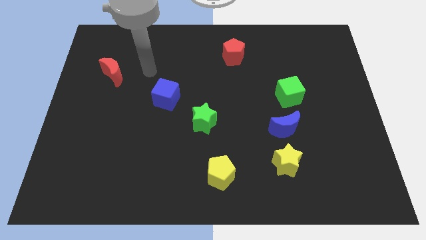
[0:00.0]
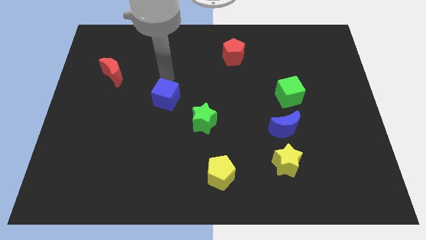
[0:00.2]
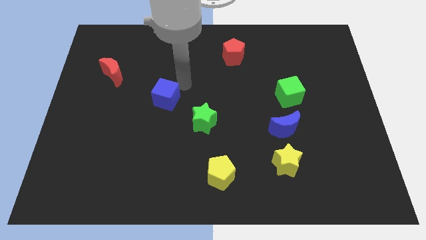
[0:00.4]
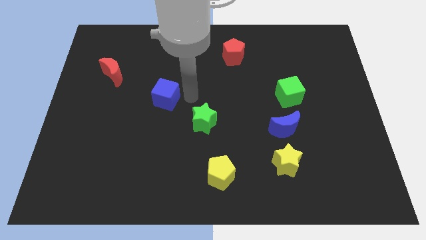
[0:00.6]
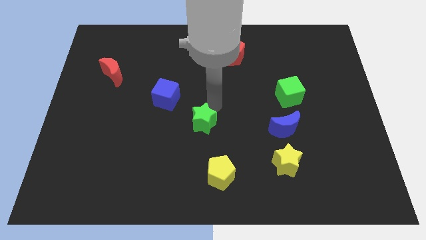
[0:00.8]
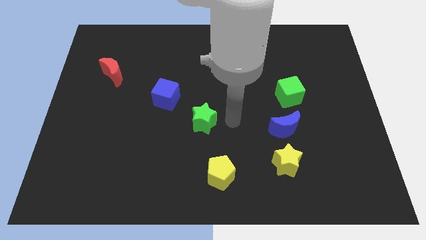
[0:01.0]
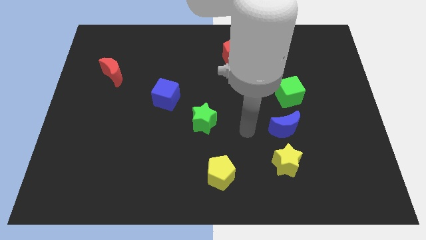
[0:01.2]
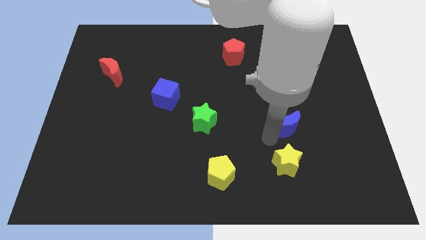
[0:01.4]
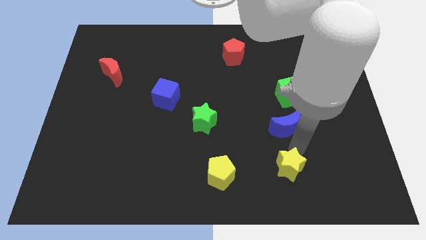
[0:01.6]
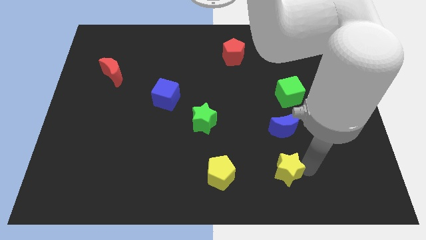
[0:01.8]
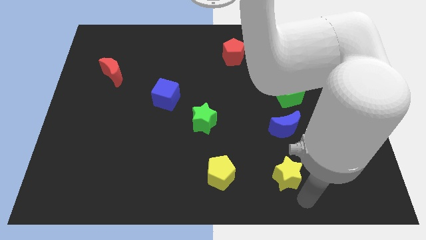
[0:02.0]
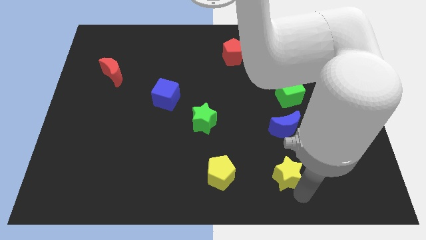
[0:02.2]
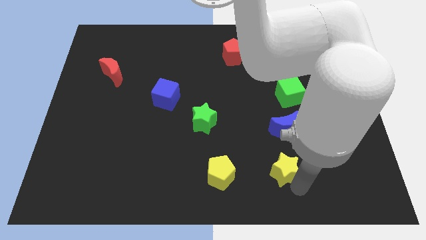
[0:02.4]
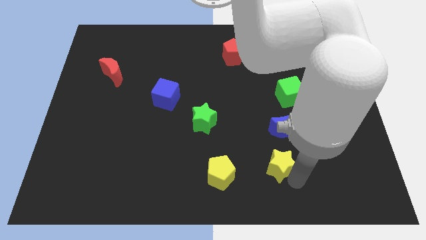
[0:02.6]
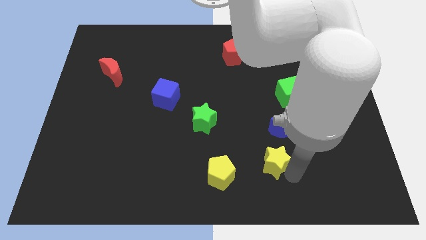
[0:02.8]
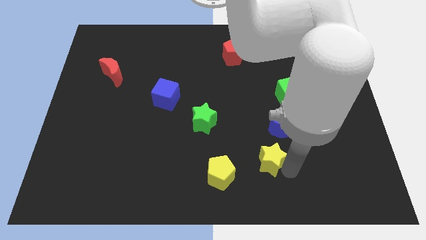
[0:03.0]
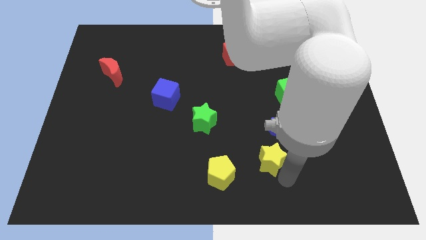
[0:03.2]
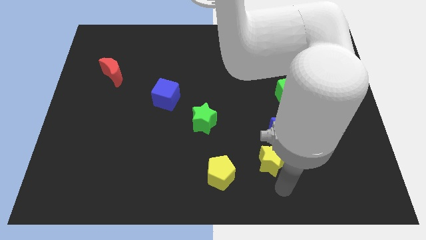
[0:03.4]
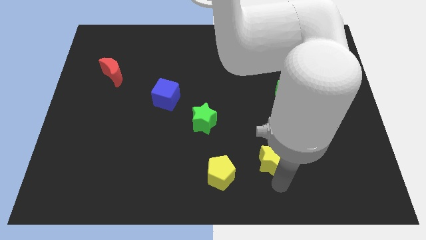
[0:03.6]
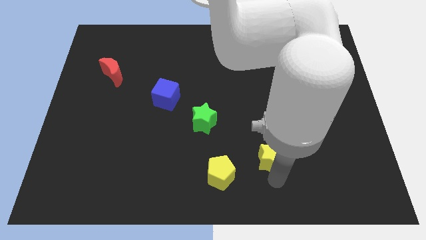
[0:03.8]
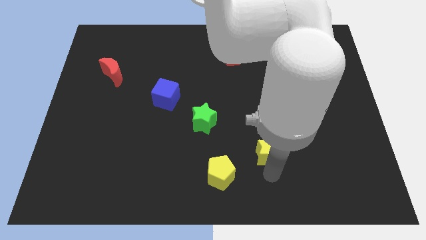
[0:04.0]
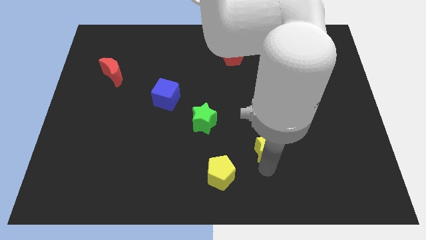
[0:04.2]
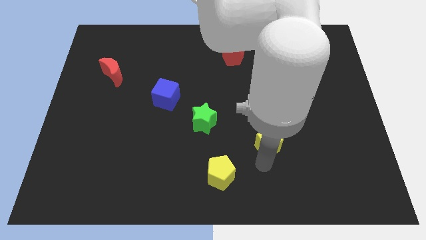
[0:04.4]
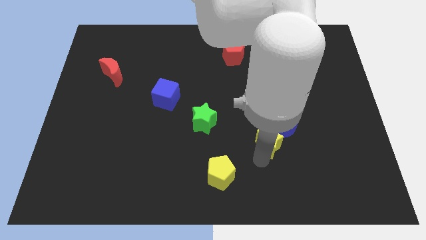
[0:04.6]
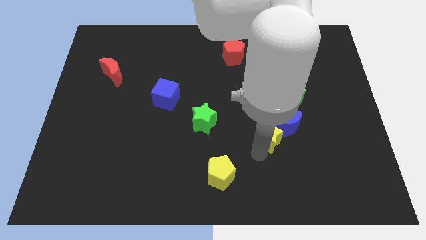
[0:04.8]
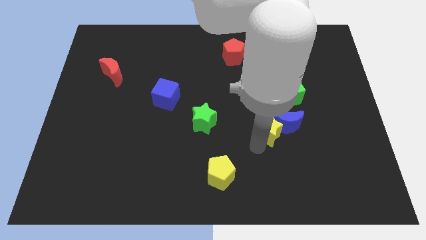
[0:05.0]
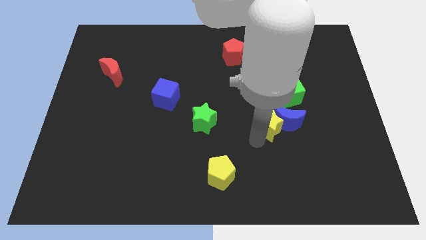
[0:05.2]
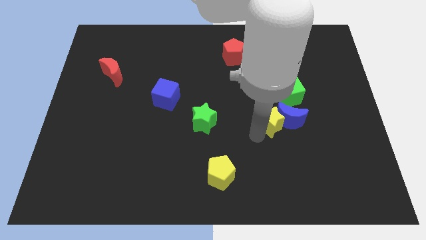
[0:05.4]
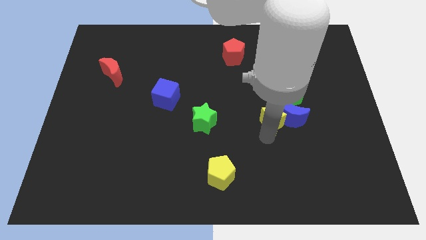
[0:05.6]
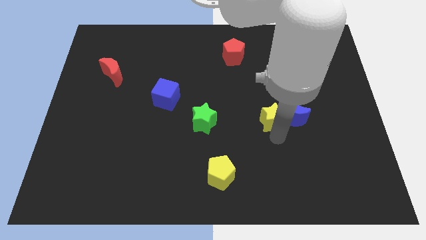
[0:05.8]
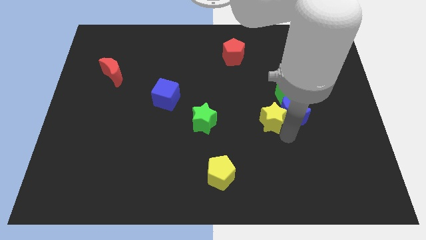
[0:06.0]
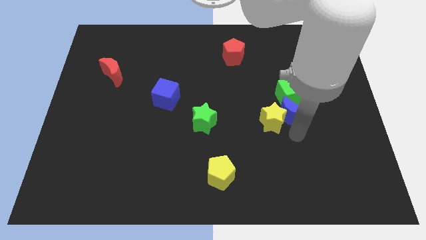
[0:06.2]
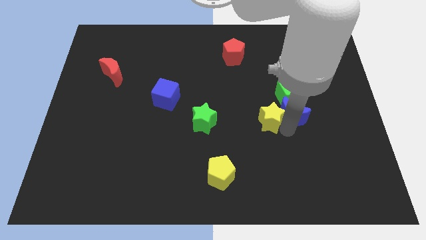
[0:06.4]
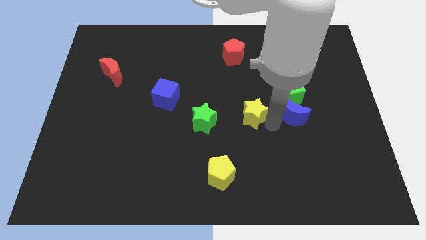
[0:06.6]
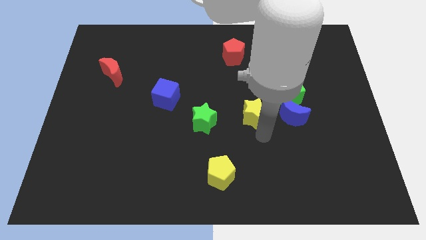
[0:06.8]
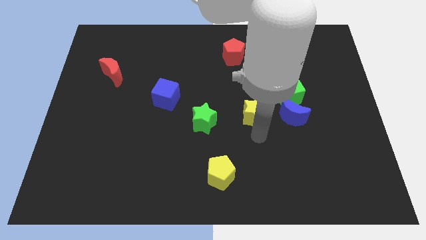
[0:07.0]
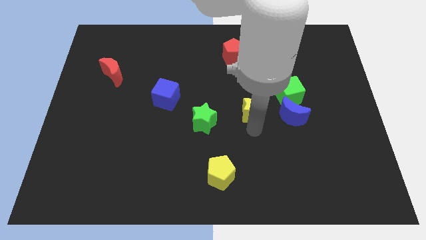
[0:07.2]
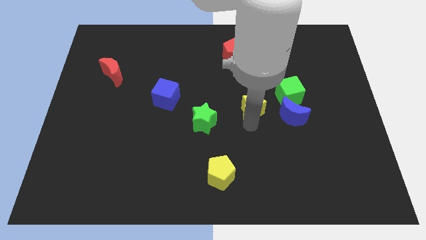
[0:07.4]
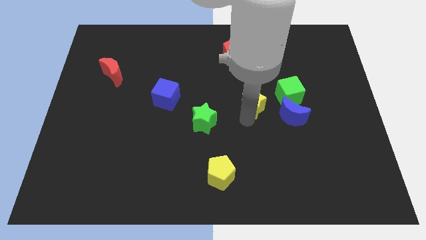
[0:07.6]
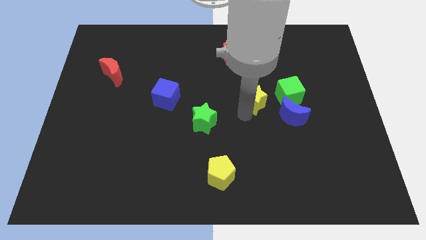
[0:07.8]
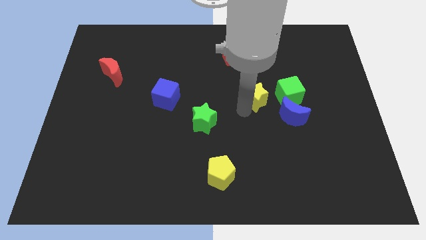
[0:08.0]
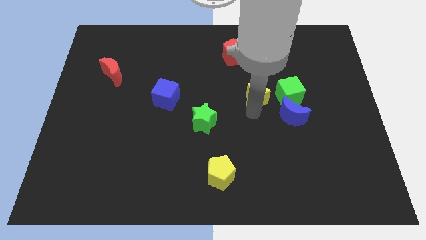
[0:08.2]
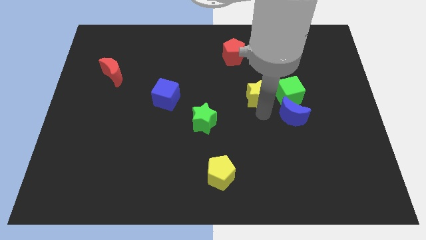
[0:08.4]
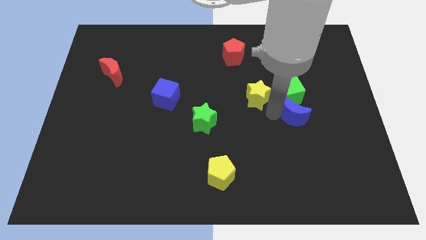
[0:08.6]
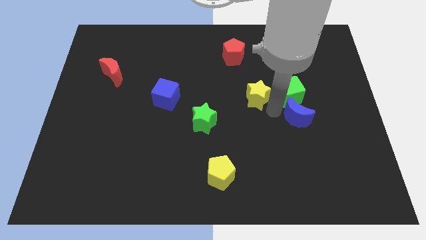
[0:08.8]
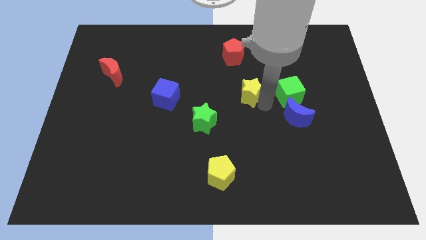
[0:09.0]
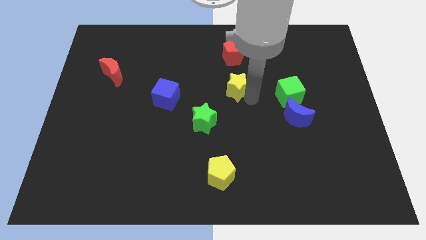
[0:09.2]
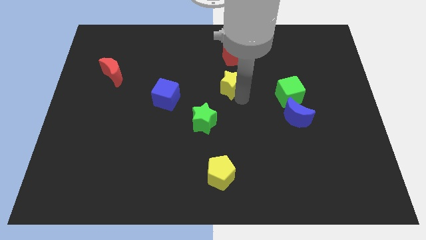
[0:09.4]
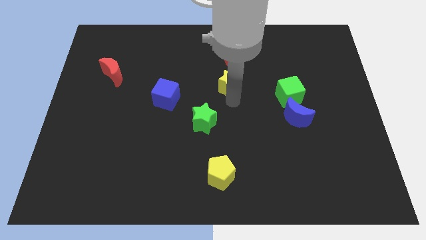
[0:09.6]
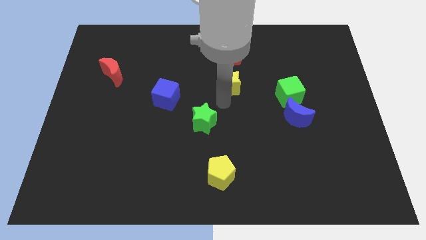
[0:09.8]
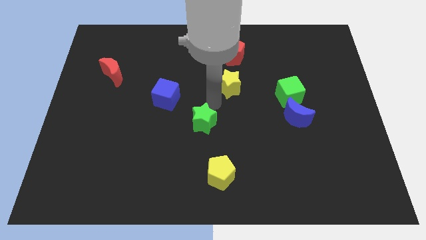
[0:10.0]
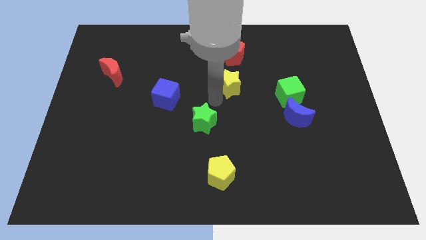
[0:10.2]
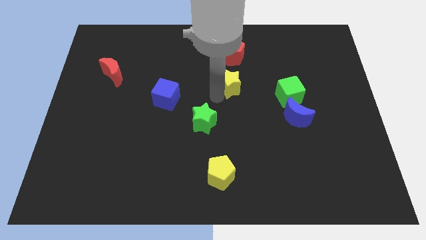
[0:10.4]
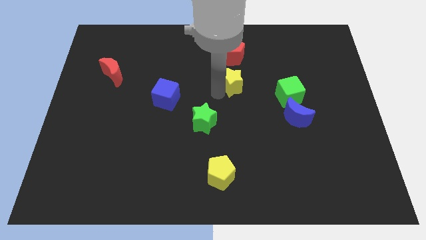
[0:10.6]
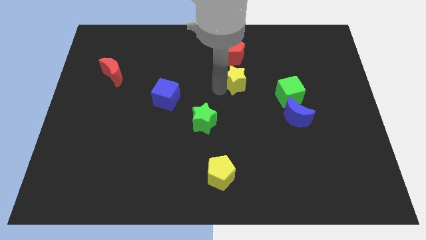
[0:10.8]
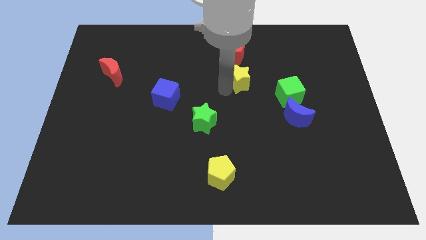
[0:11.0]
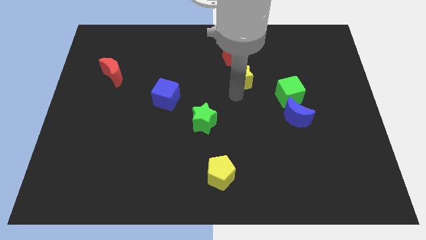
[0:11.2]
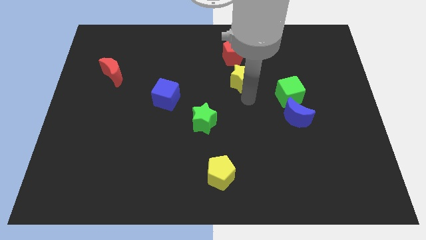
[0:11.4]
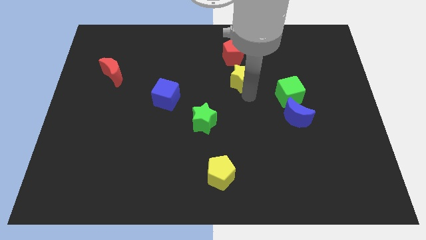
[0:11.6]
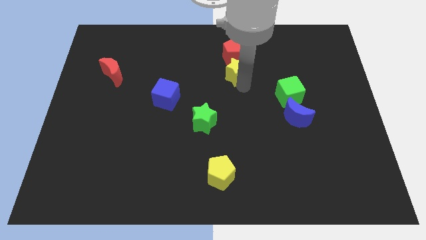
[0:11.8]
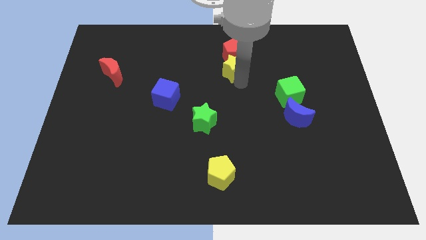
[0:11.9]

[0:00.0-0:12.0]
slide the yellow star close to the red pentagon

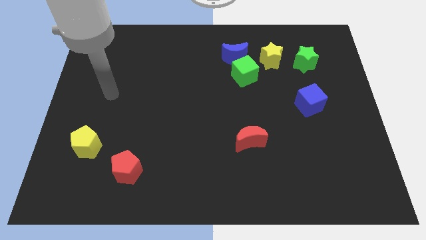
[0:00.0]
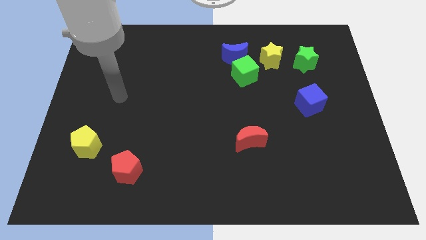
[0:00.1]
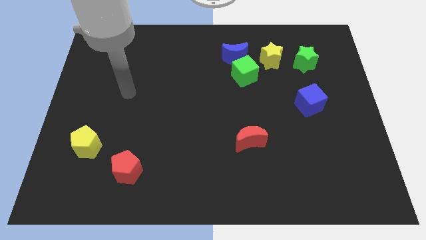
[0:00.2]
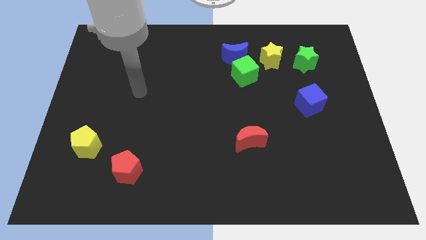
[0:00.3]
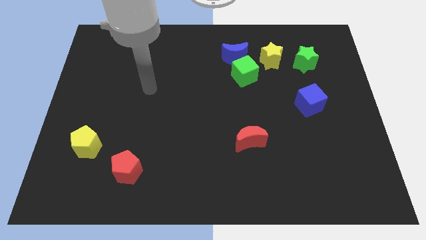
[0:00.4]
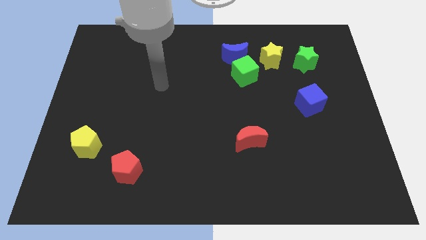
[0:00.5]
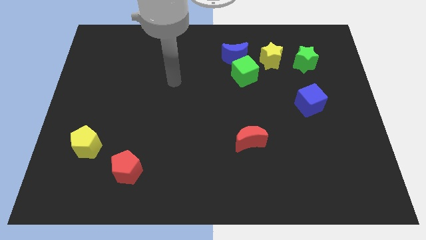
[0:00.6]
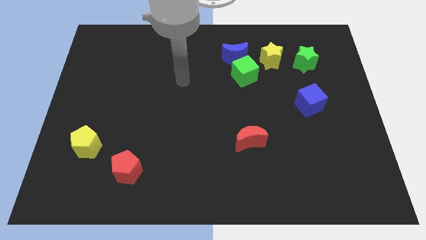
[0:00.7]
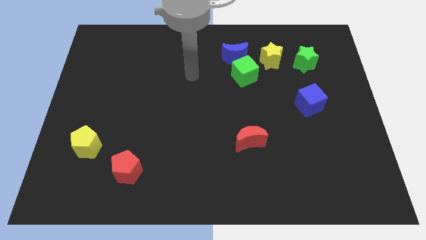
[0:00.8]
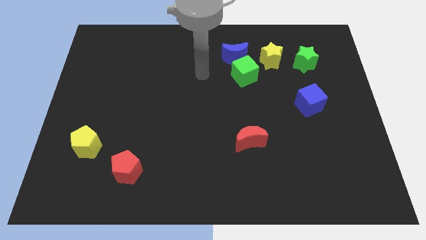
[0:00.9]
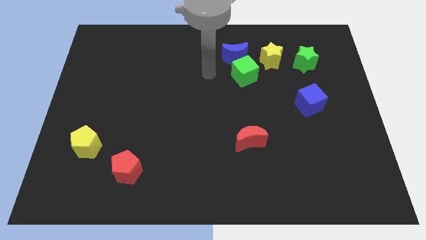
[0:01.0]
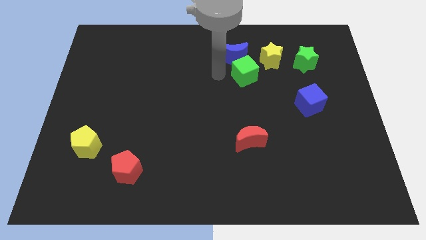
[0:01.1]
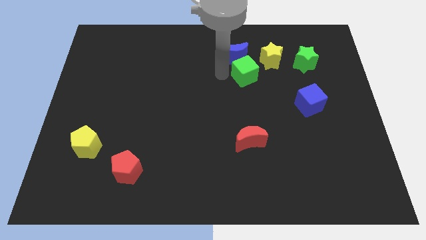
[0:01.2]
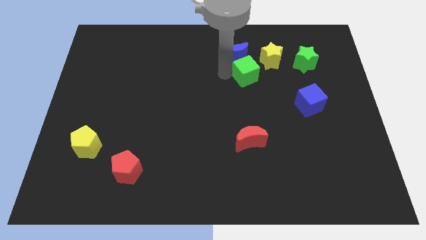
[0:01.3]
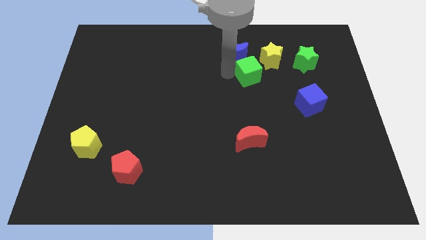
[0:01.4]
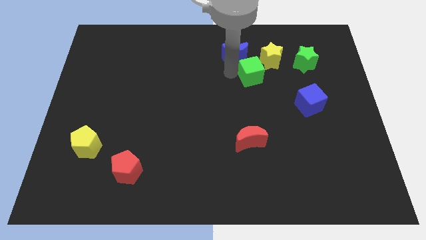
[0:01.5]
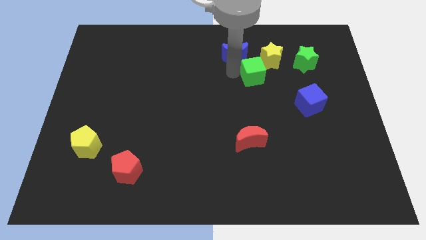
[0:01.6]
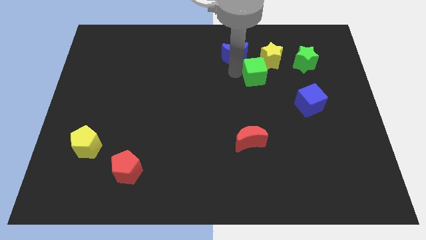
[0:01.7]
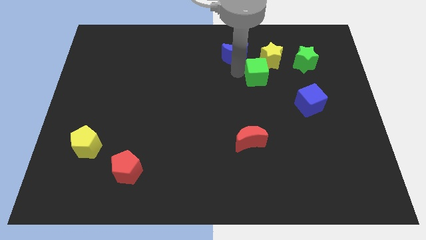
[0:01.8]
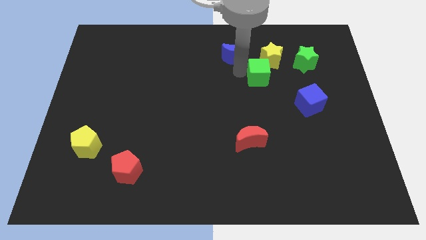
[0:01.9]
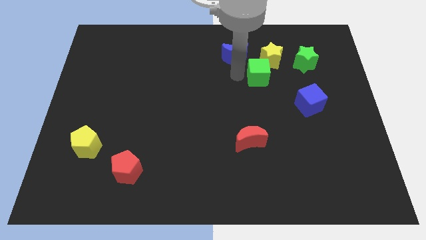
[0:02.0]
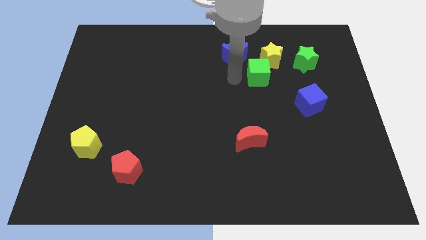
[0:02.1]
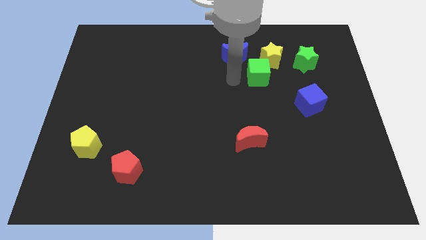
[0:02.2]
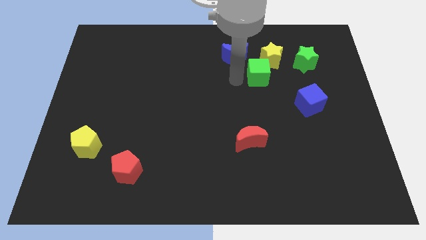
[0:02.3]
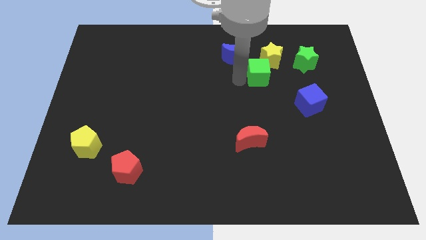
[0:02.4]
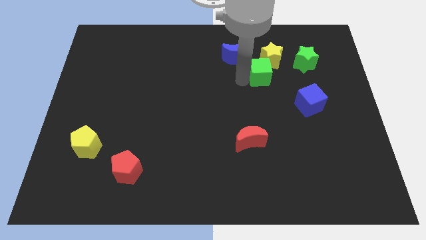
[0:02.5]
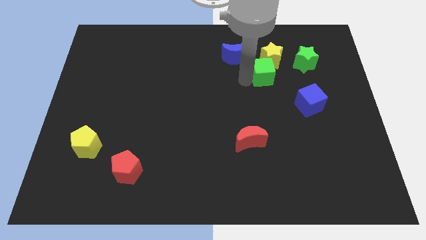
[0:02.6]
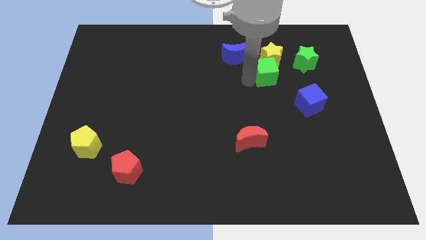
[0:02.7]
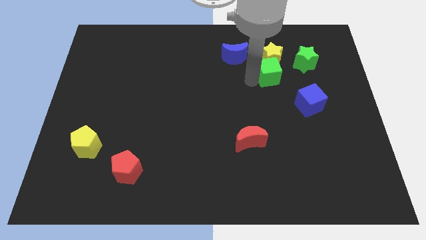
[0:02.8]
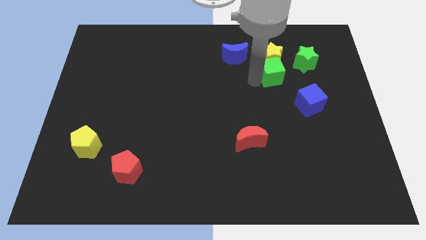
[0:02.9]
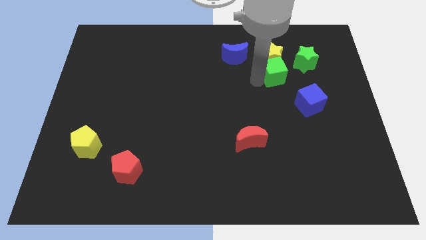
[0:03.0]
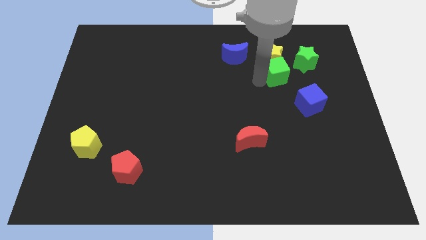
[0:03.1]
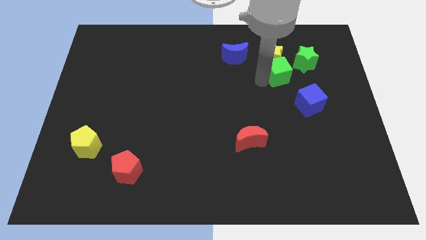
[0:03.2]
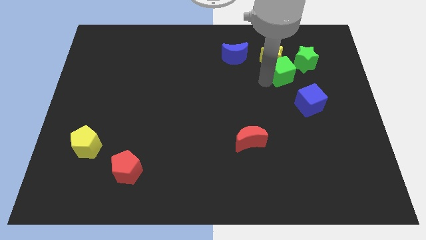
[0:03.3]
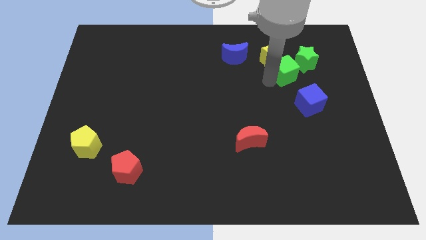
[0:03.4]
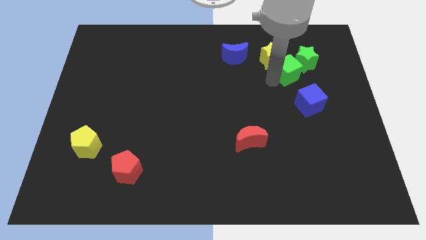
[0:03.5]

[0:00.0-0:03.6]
move the green cube next to the green star
